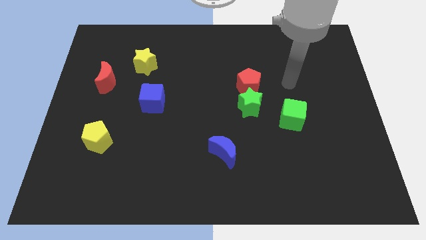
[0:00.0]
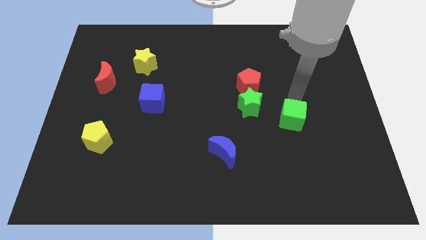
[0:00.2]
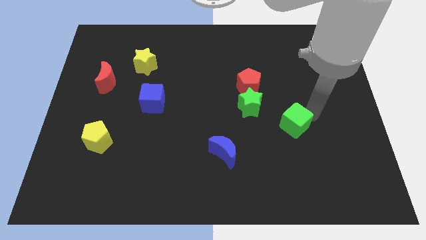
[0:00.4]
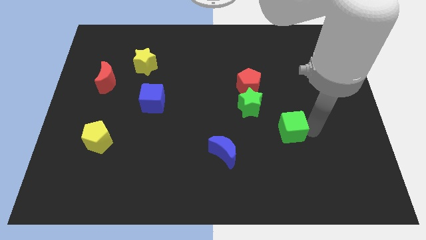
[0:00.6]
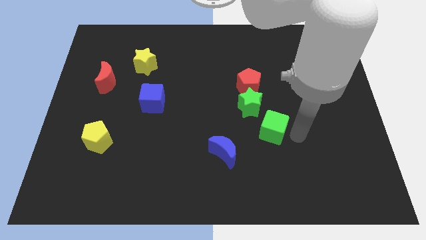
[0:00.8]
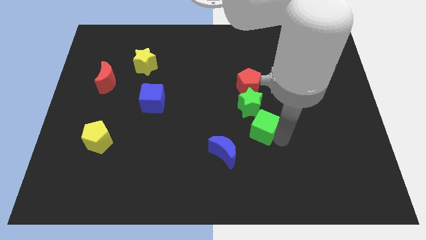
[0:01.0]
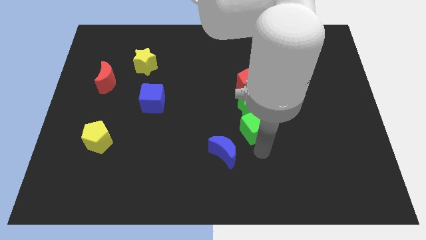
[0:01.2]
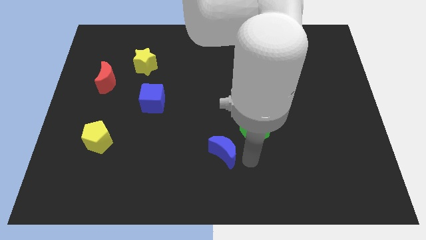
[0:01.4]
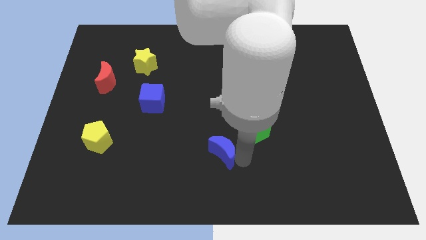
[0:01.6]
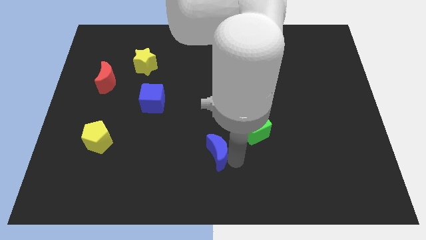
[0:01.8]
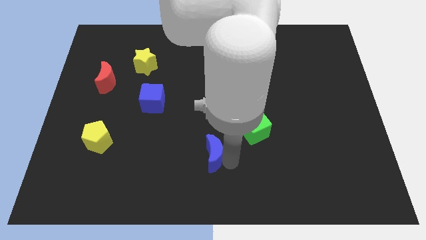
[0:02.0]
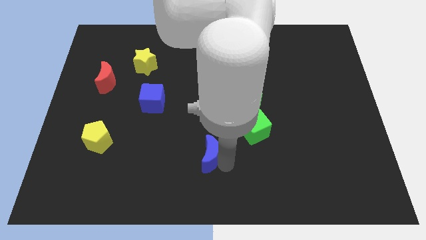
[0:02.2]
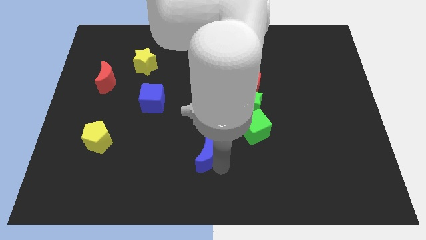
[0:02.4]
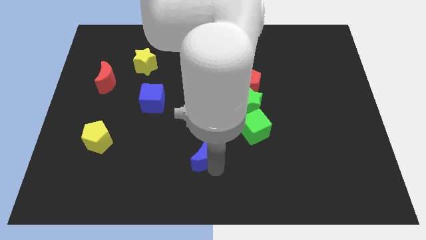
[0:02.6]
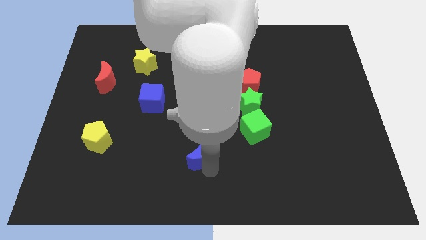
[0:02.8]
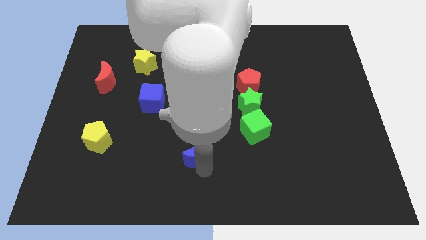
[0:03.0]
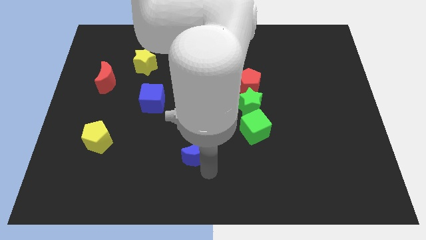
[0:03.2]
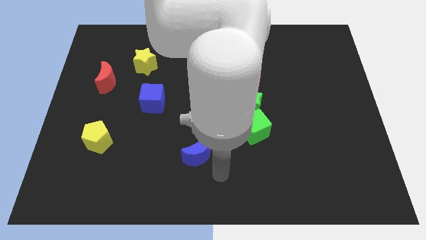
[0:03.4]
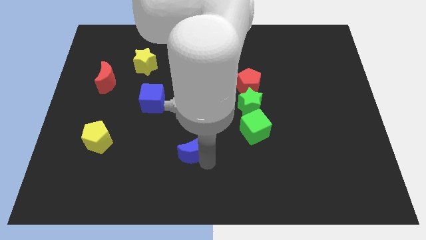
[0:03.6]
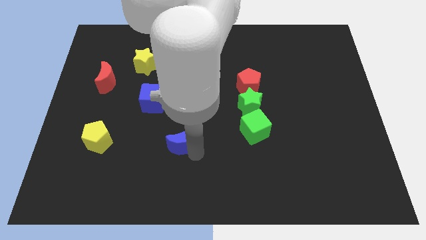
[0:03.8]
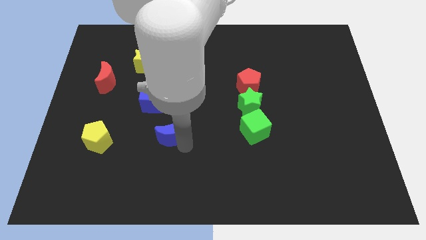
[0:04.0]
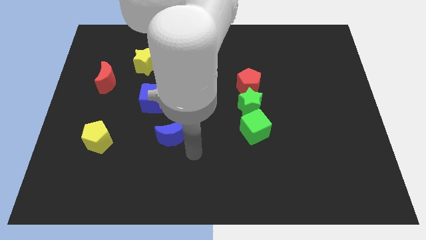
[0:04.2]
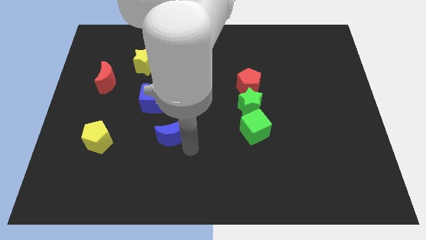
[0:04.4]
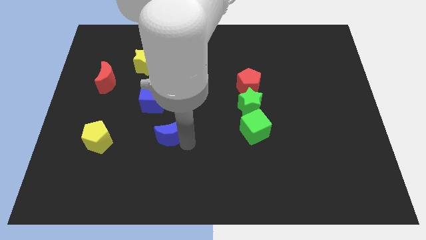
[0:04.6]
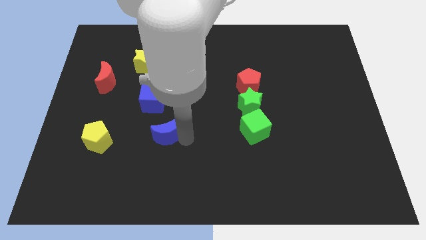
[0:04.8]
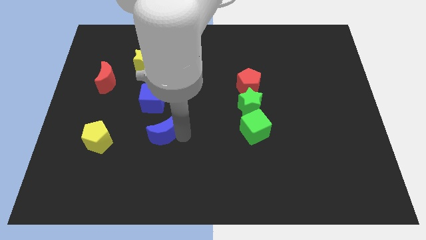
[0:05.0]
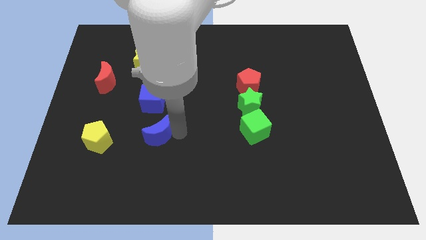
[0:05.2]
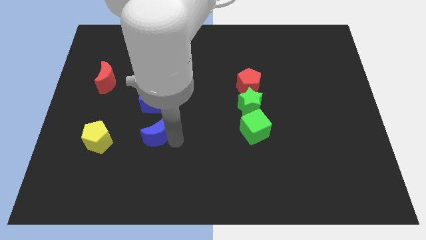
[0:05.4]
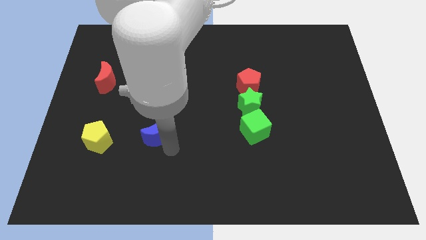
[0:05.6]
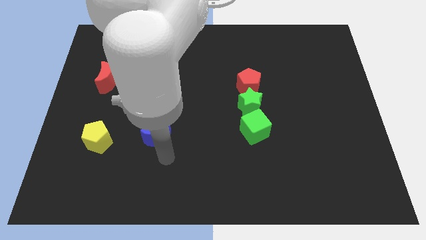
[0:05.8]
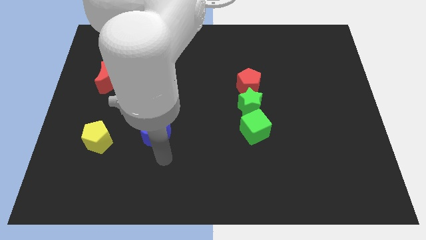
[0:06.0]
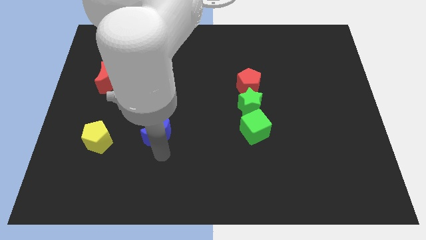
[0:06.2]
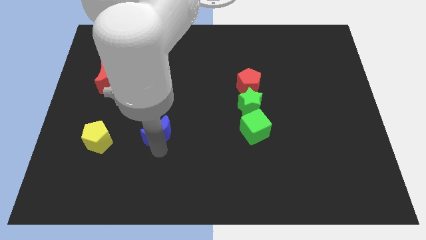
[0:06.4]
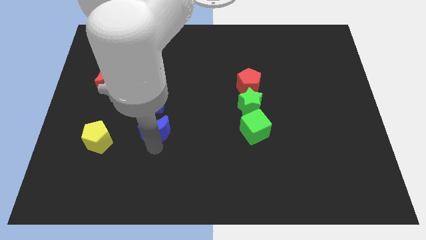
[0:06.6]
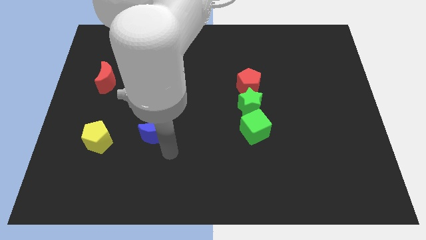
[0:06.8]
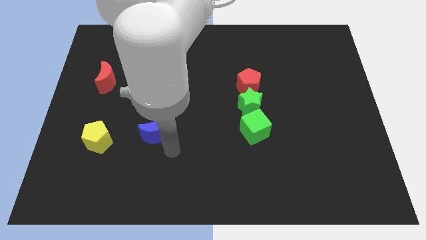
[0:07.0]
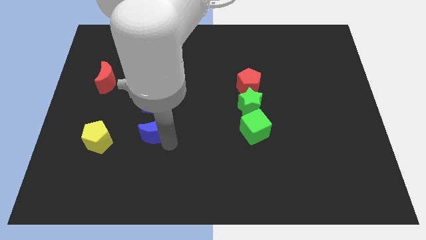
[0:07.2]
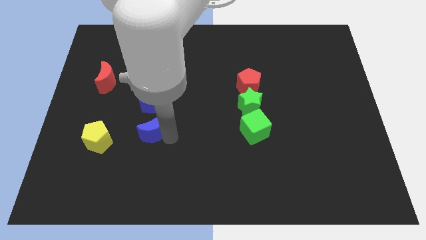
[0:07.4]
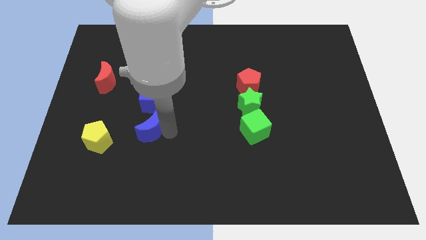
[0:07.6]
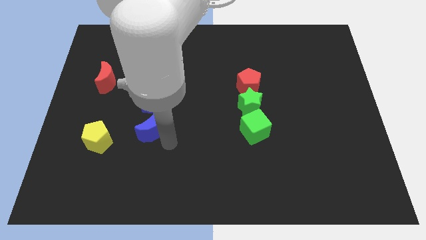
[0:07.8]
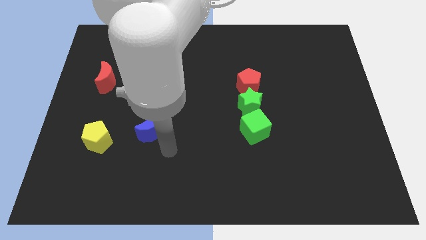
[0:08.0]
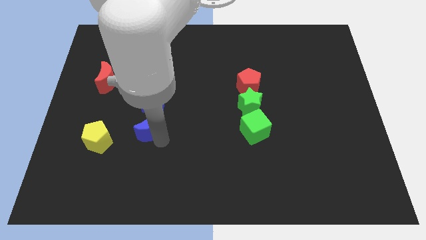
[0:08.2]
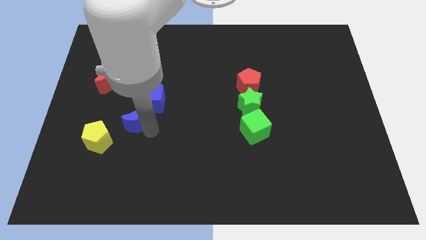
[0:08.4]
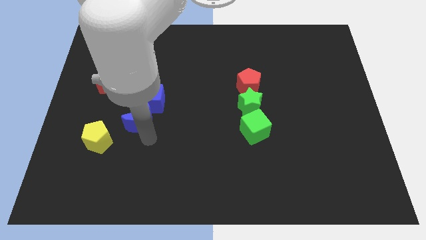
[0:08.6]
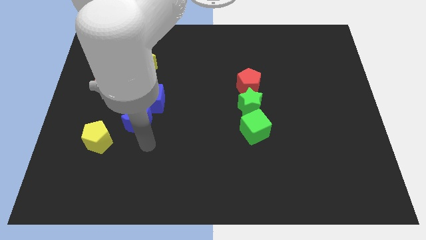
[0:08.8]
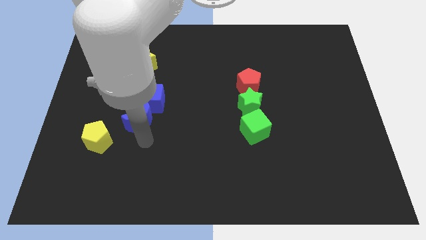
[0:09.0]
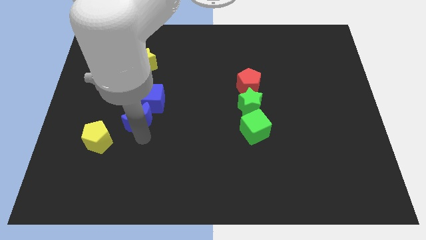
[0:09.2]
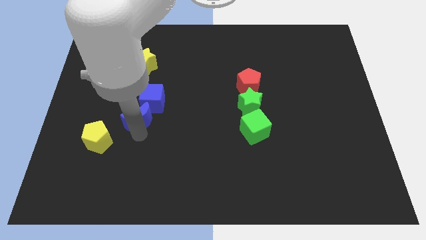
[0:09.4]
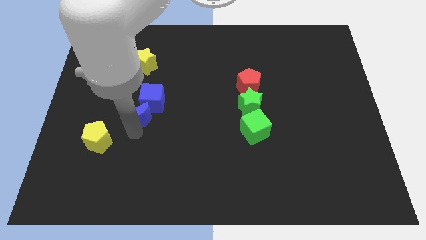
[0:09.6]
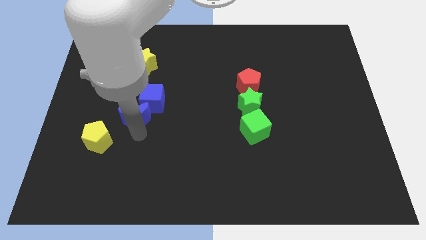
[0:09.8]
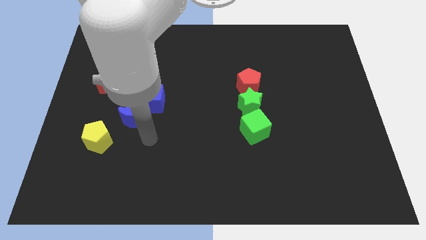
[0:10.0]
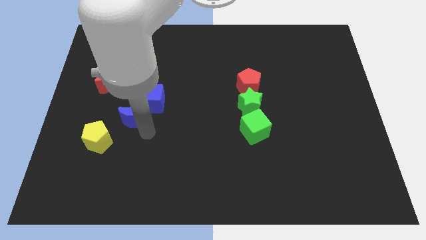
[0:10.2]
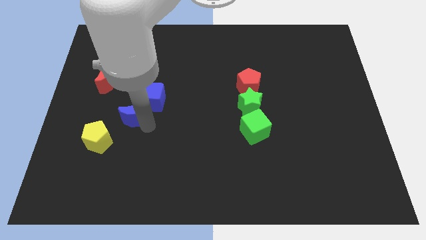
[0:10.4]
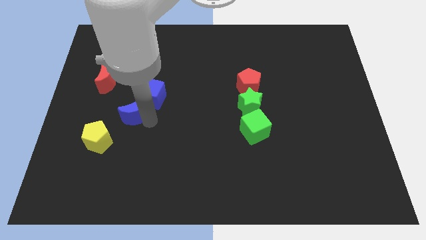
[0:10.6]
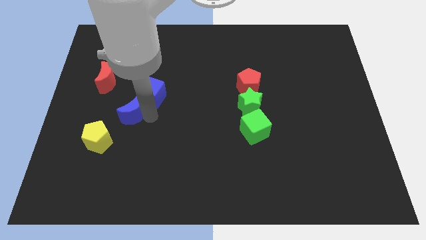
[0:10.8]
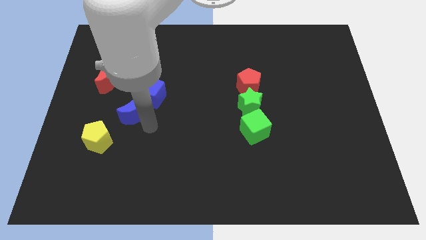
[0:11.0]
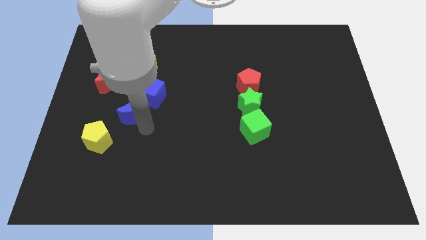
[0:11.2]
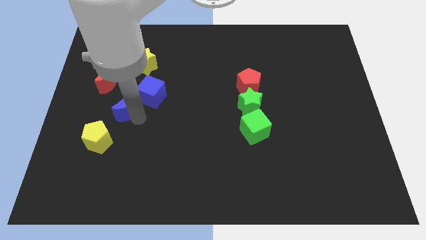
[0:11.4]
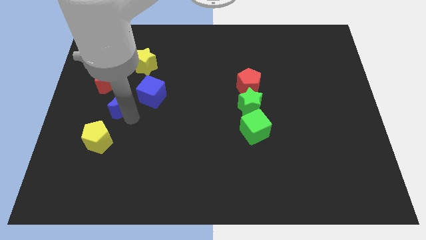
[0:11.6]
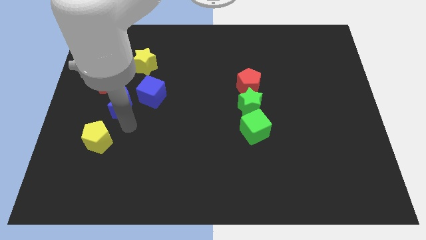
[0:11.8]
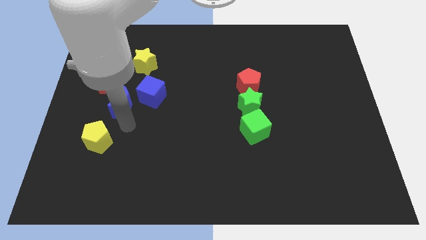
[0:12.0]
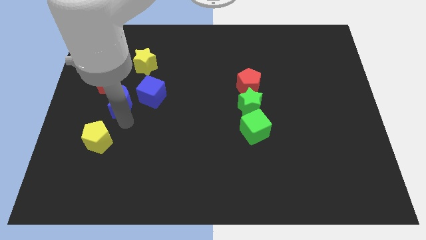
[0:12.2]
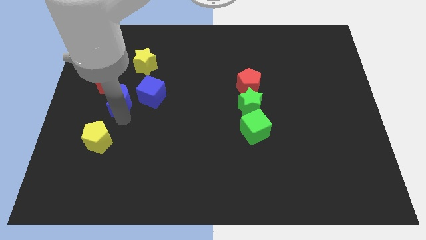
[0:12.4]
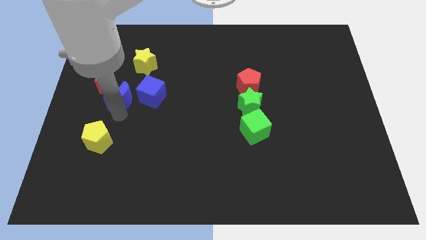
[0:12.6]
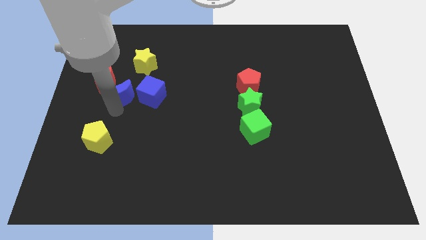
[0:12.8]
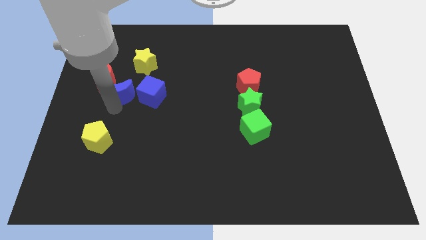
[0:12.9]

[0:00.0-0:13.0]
push the blue moon to the red moon

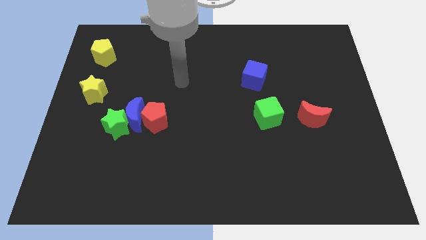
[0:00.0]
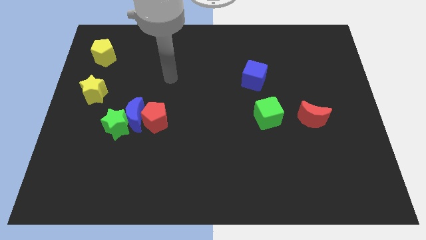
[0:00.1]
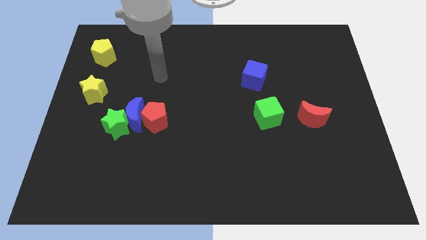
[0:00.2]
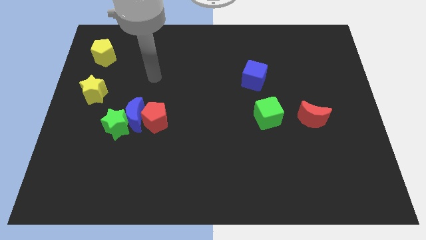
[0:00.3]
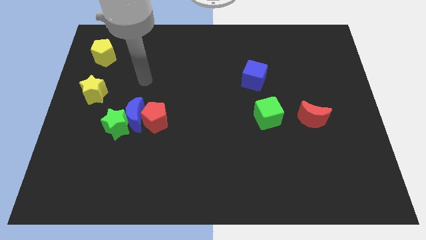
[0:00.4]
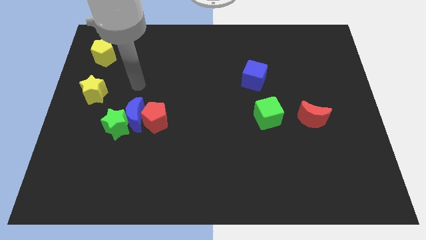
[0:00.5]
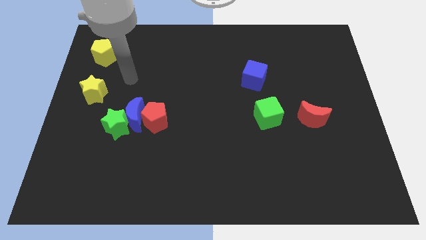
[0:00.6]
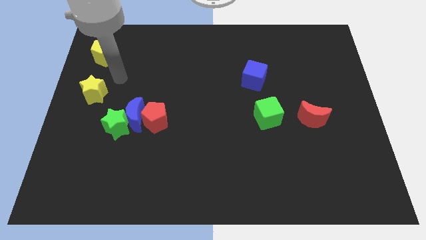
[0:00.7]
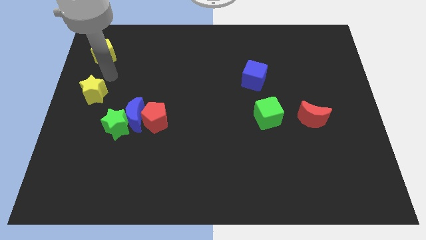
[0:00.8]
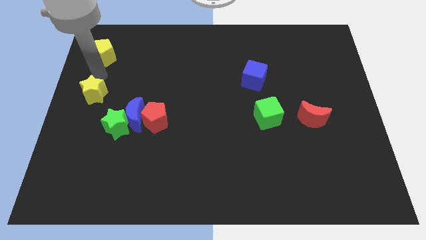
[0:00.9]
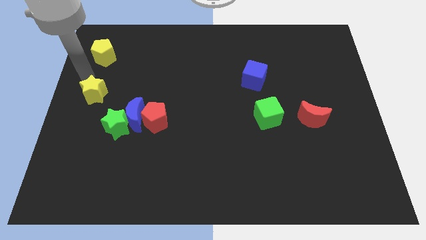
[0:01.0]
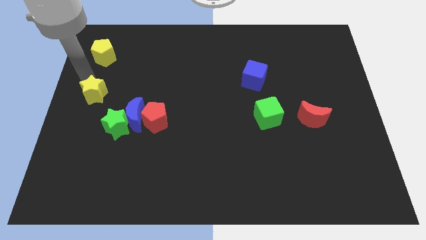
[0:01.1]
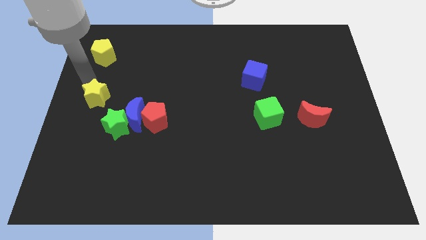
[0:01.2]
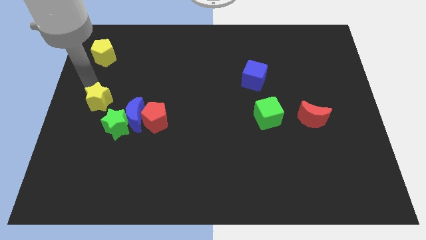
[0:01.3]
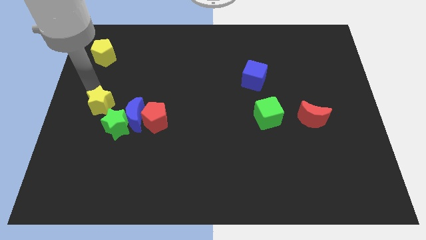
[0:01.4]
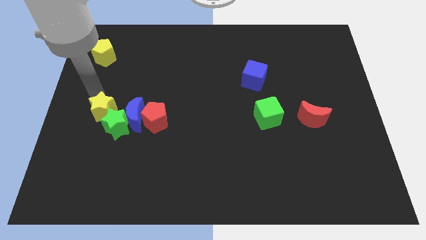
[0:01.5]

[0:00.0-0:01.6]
slide the yellow star towards the green star
